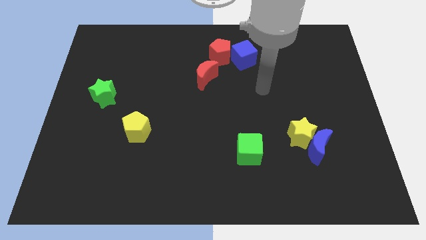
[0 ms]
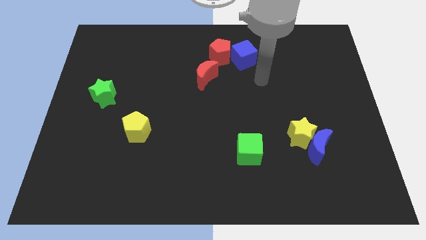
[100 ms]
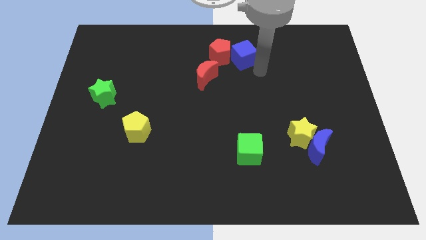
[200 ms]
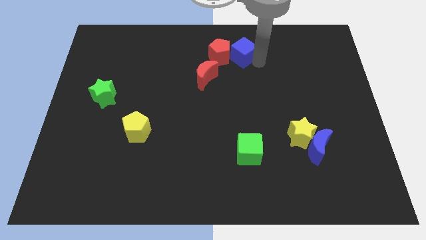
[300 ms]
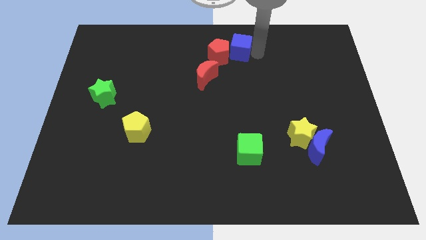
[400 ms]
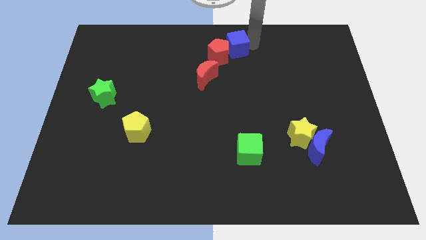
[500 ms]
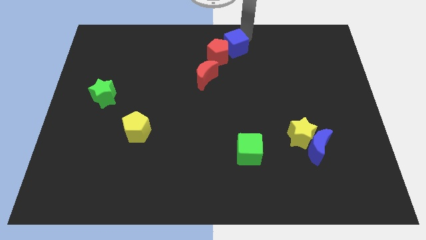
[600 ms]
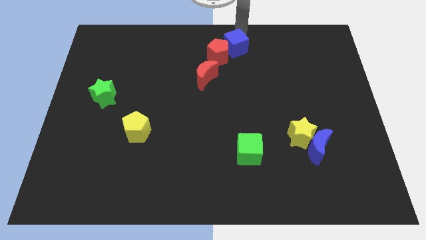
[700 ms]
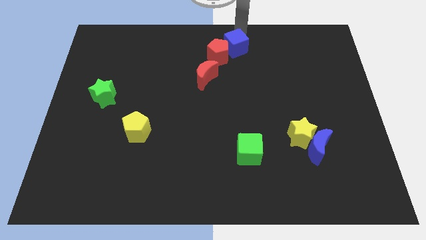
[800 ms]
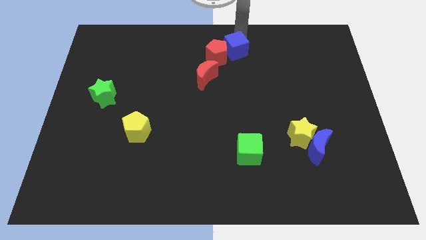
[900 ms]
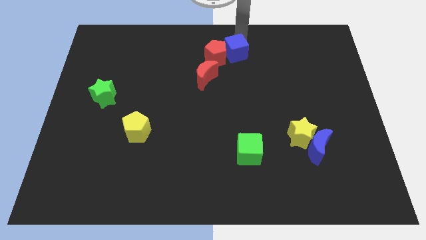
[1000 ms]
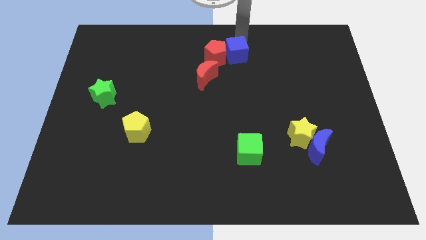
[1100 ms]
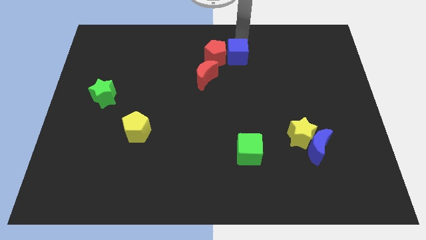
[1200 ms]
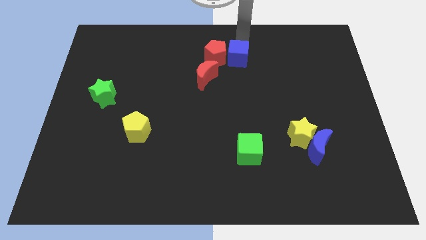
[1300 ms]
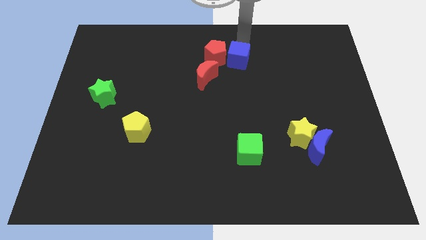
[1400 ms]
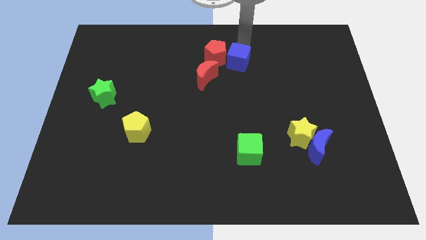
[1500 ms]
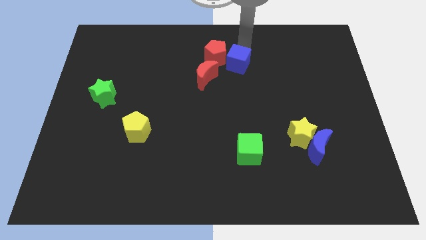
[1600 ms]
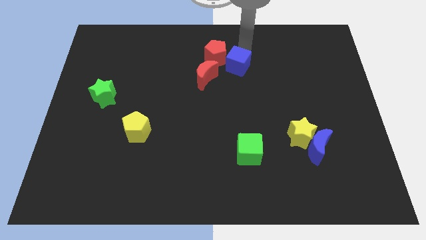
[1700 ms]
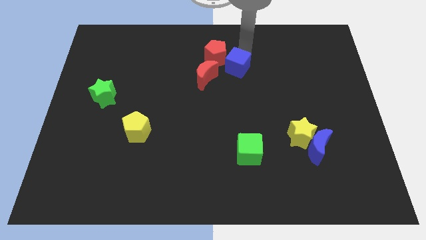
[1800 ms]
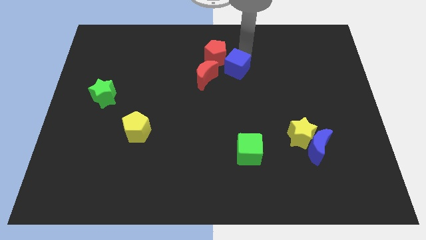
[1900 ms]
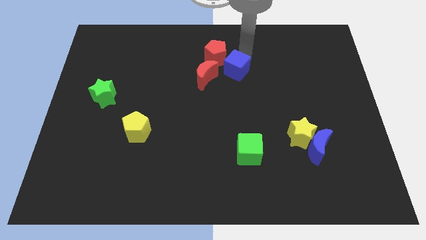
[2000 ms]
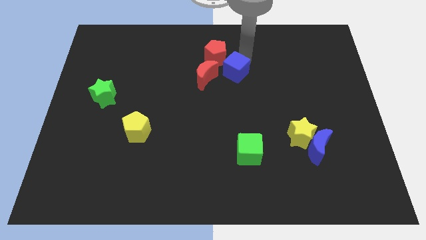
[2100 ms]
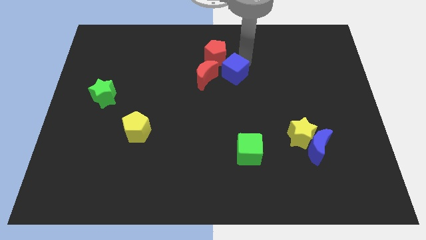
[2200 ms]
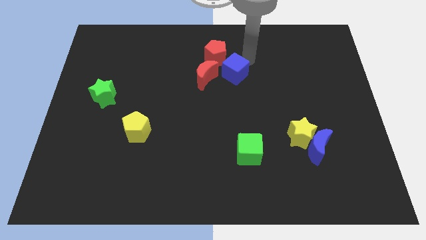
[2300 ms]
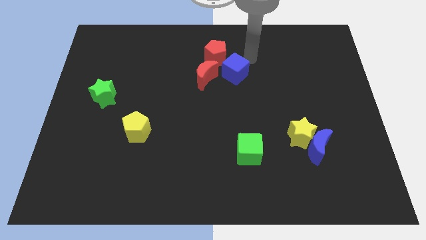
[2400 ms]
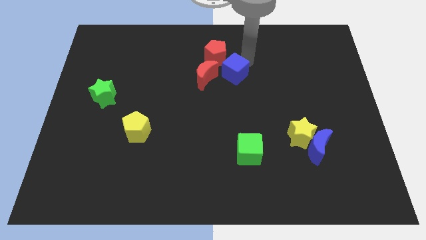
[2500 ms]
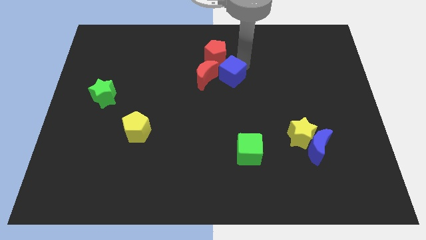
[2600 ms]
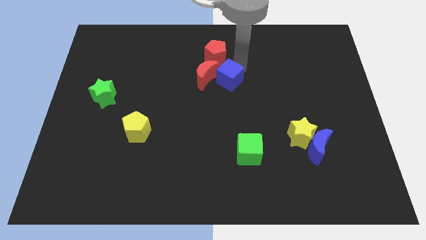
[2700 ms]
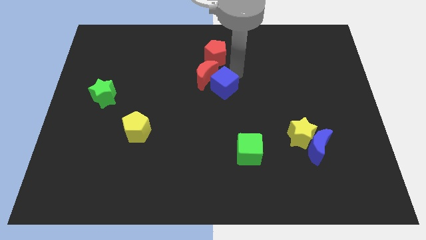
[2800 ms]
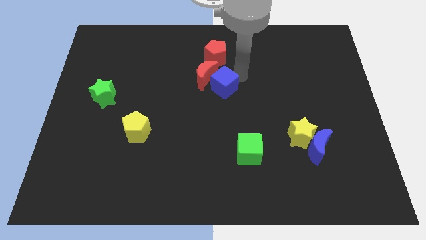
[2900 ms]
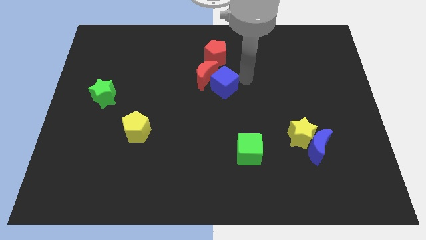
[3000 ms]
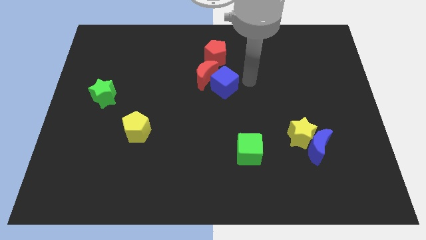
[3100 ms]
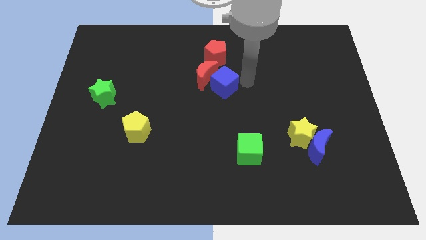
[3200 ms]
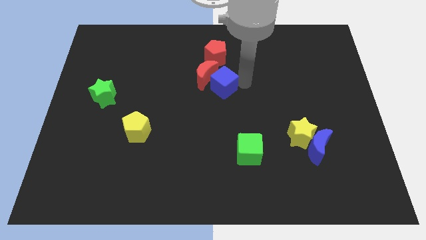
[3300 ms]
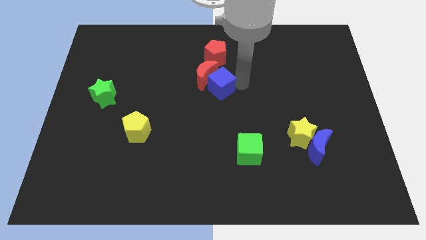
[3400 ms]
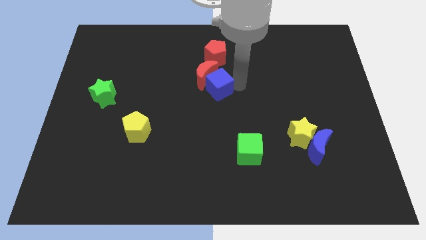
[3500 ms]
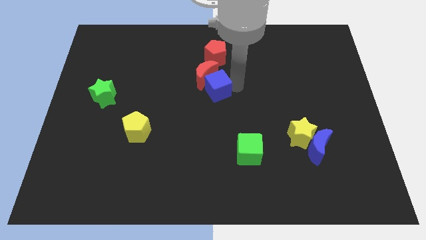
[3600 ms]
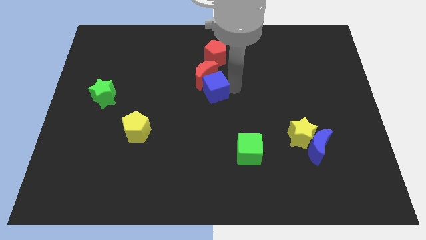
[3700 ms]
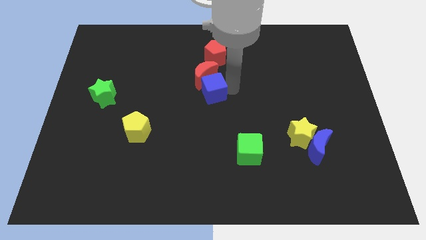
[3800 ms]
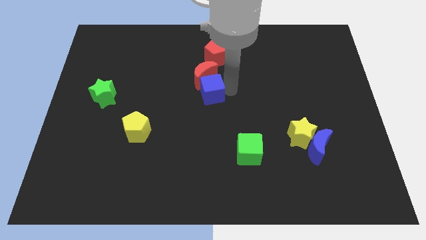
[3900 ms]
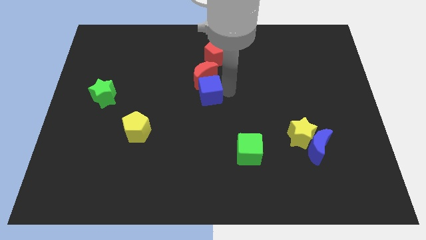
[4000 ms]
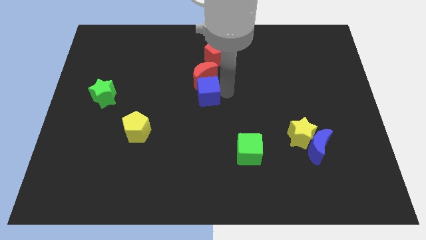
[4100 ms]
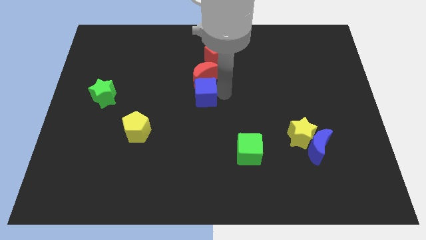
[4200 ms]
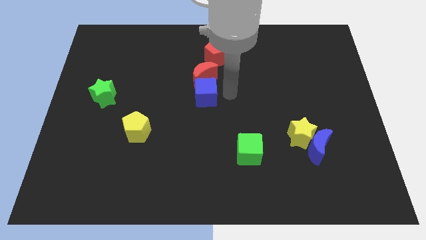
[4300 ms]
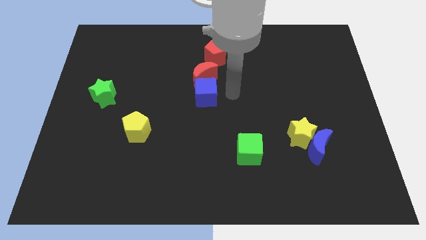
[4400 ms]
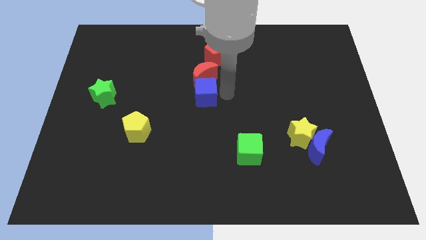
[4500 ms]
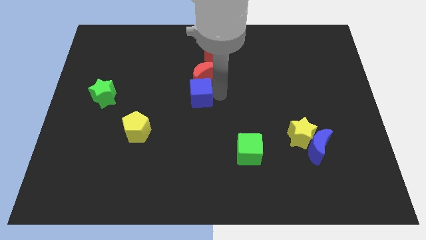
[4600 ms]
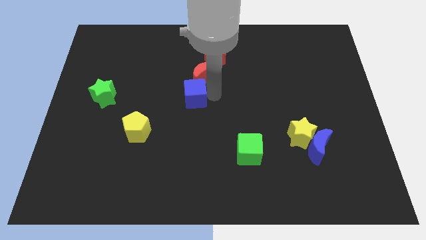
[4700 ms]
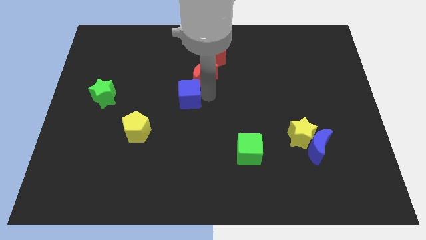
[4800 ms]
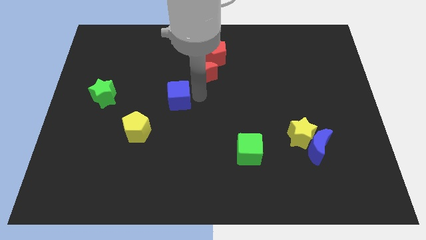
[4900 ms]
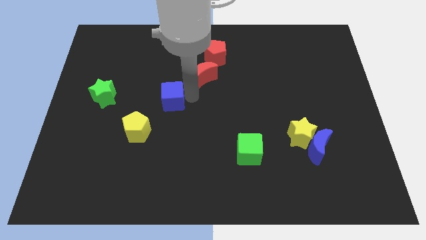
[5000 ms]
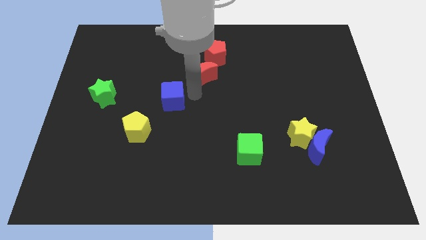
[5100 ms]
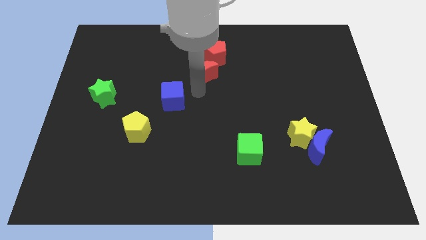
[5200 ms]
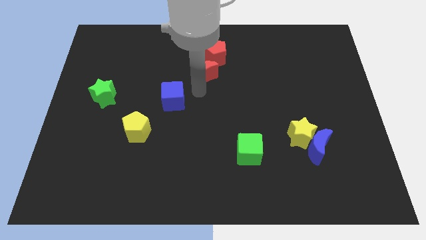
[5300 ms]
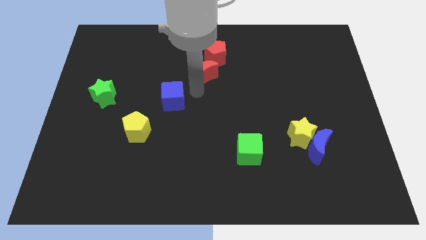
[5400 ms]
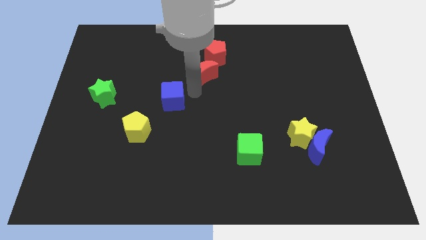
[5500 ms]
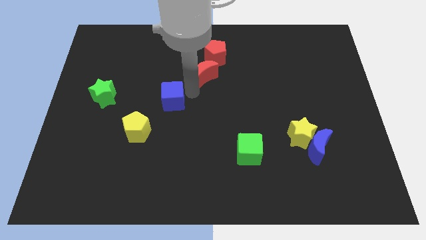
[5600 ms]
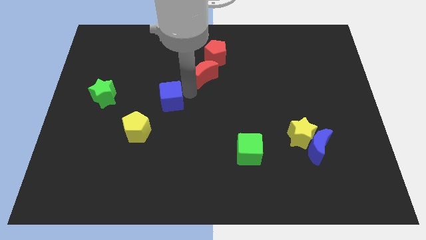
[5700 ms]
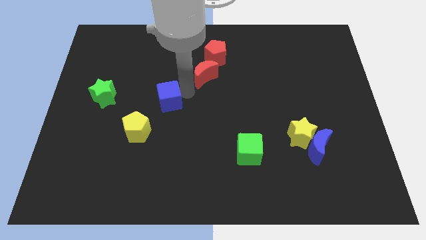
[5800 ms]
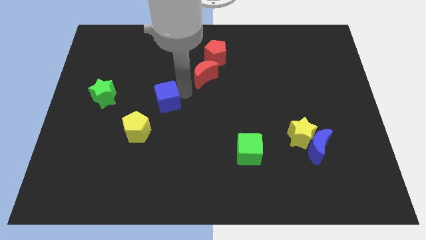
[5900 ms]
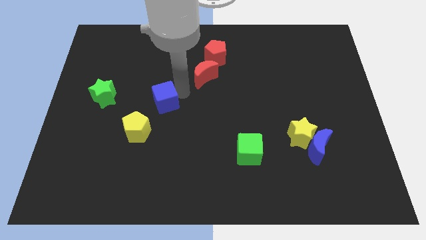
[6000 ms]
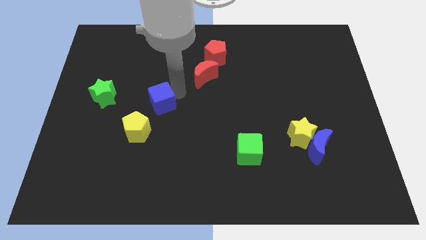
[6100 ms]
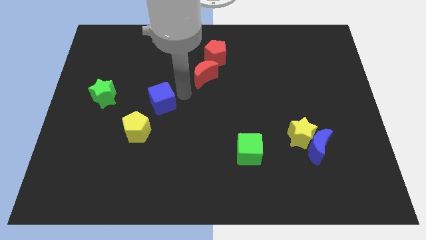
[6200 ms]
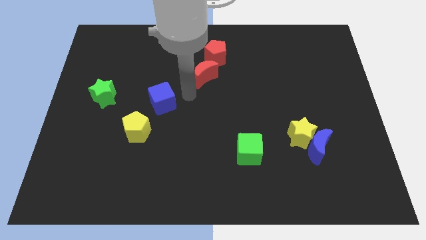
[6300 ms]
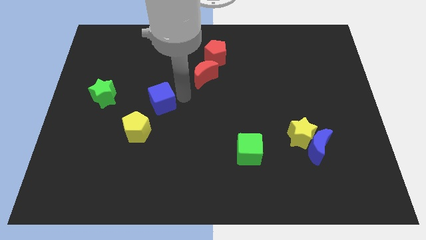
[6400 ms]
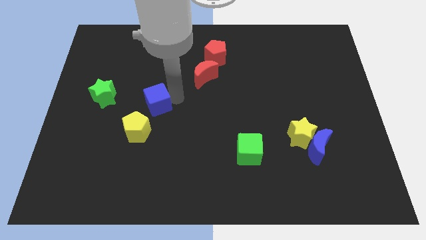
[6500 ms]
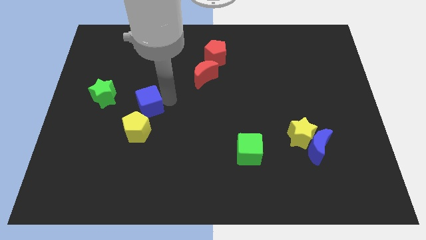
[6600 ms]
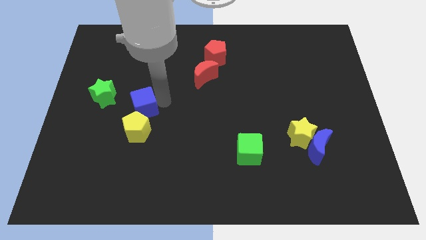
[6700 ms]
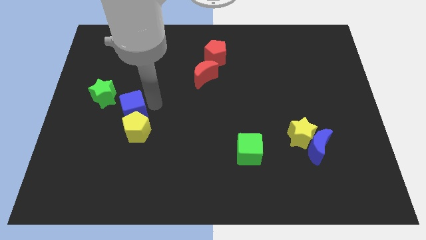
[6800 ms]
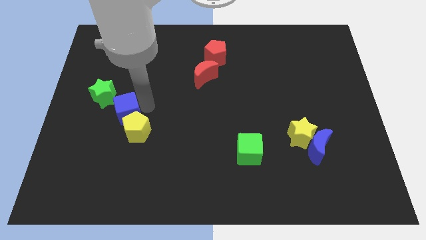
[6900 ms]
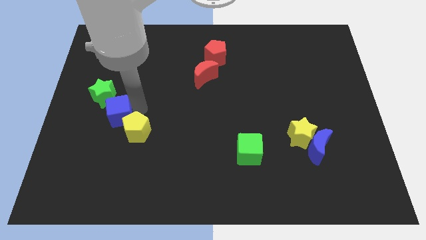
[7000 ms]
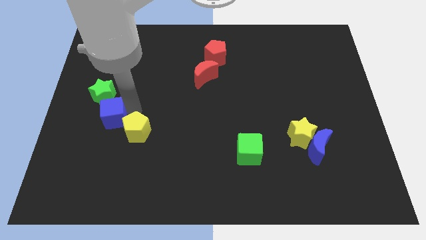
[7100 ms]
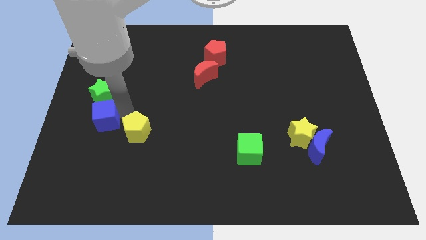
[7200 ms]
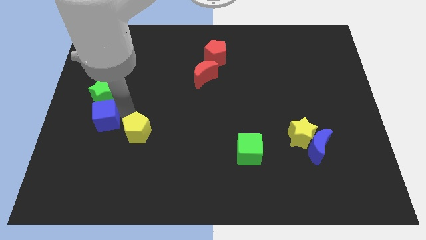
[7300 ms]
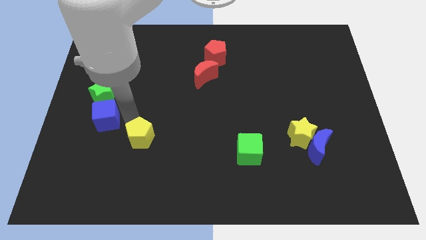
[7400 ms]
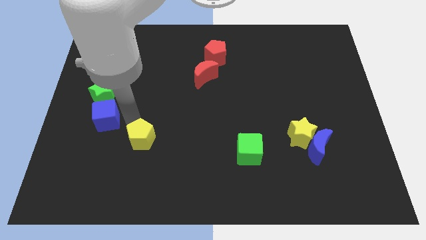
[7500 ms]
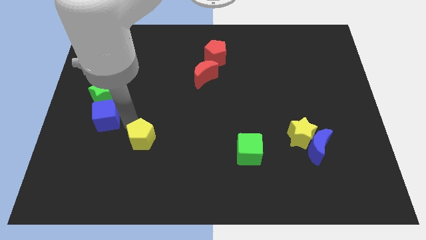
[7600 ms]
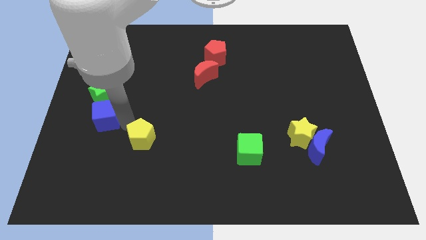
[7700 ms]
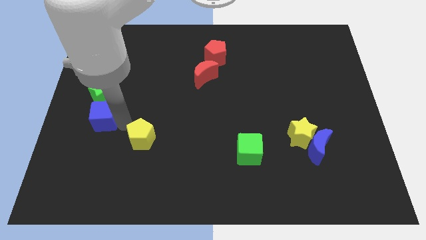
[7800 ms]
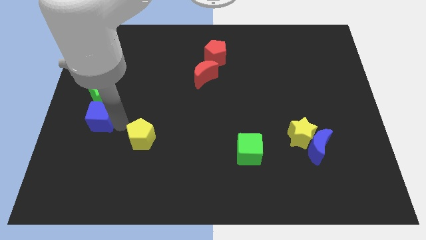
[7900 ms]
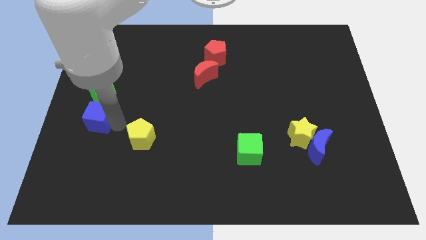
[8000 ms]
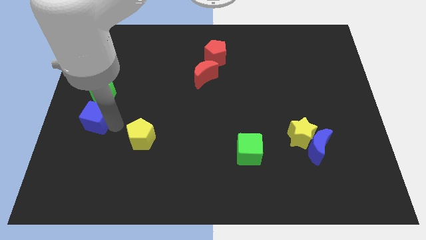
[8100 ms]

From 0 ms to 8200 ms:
slide the blue cube to the left side of the board
